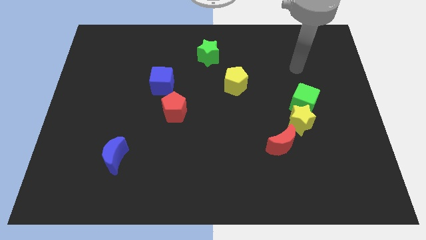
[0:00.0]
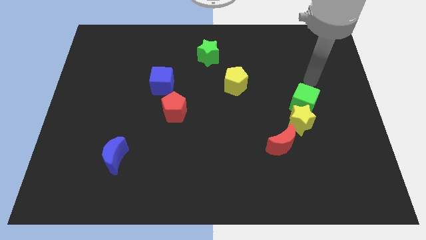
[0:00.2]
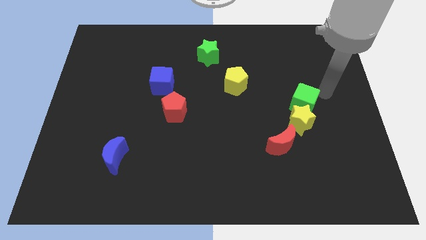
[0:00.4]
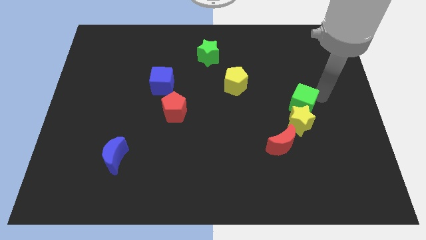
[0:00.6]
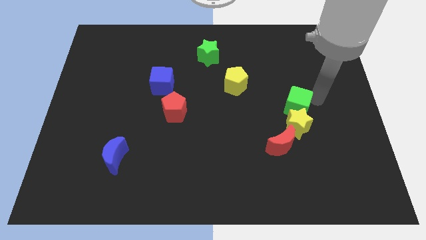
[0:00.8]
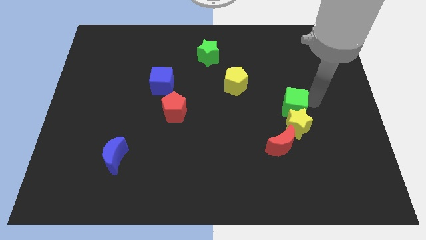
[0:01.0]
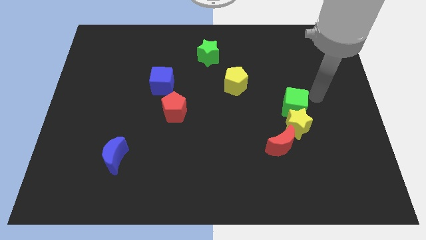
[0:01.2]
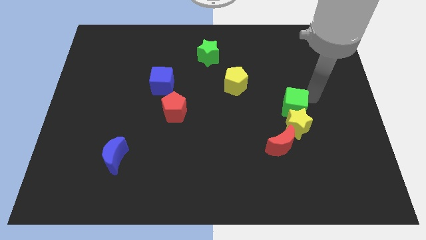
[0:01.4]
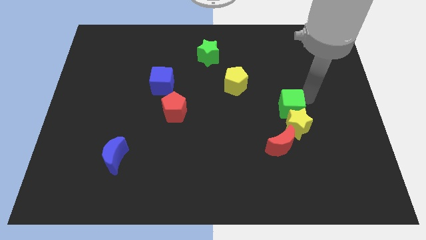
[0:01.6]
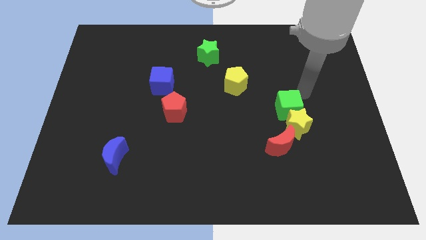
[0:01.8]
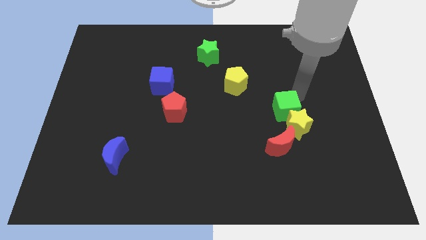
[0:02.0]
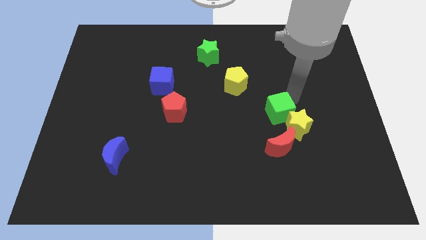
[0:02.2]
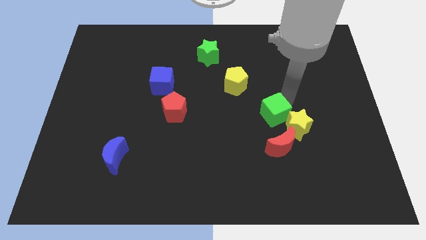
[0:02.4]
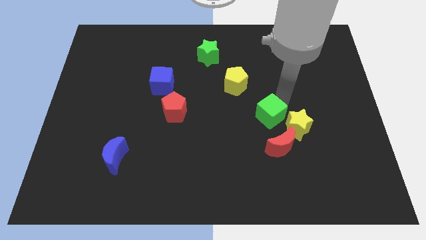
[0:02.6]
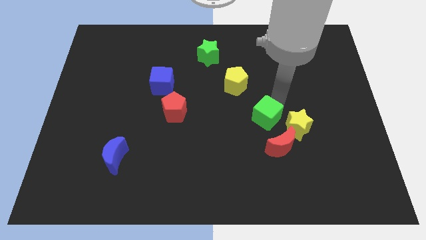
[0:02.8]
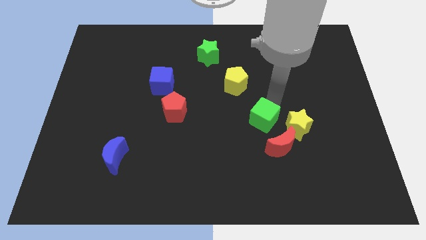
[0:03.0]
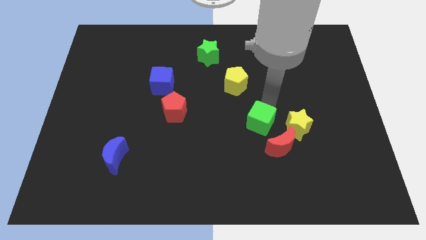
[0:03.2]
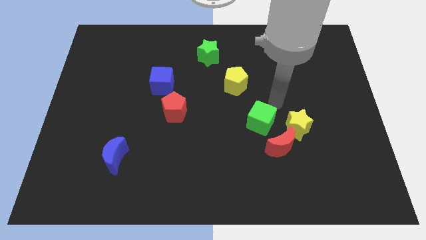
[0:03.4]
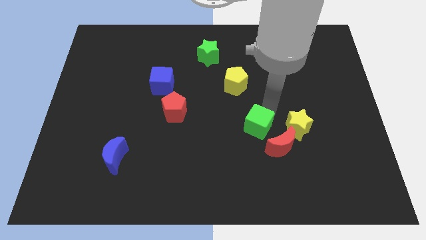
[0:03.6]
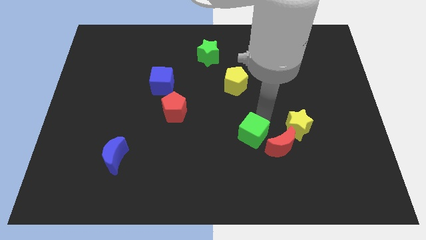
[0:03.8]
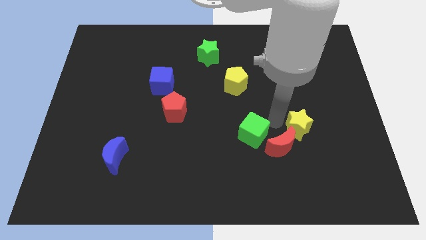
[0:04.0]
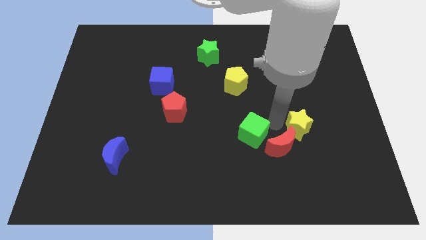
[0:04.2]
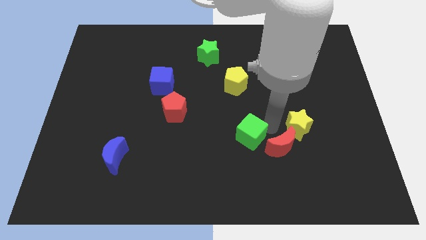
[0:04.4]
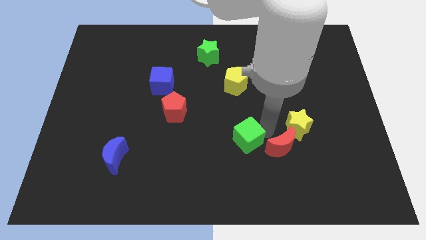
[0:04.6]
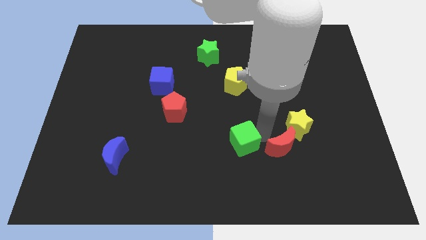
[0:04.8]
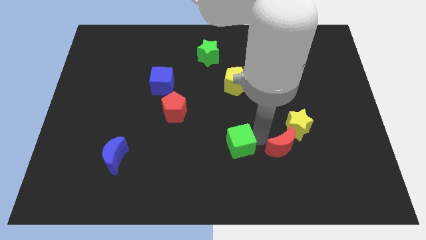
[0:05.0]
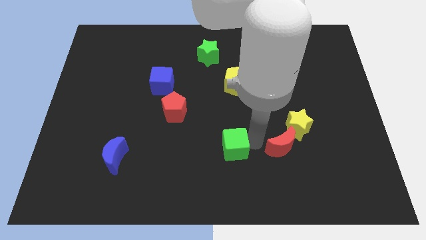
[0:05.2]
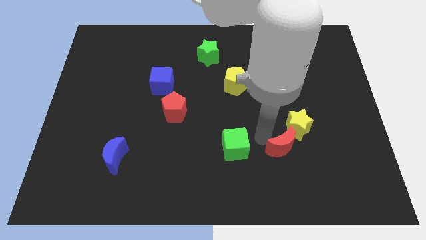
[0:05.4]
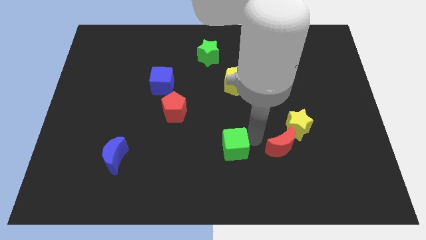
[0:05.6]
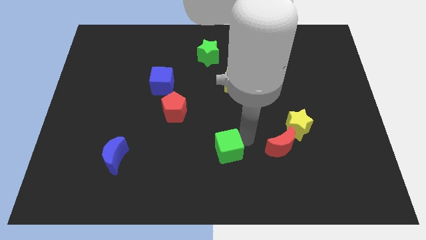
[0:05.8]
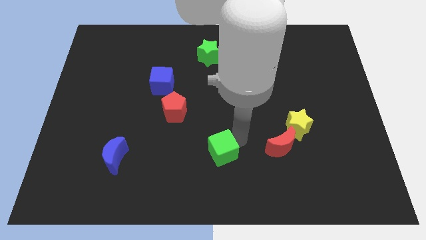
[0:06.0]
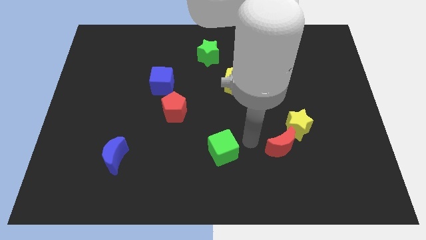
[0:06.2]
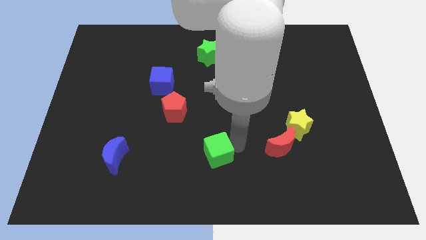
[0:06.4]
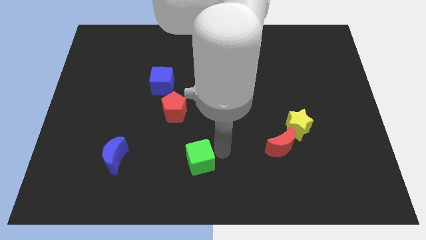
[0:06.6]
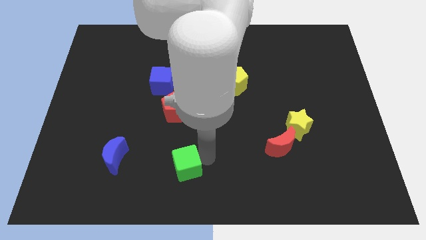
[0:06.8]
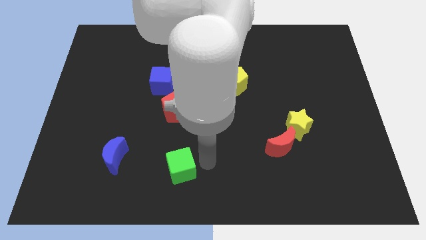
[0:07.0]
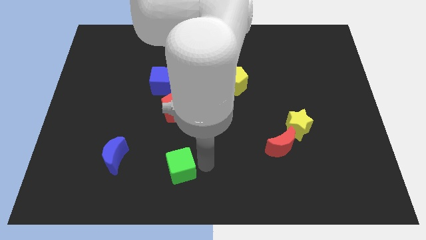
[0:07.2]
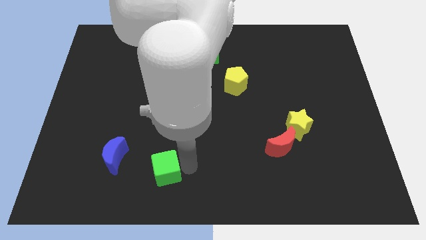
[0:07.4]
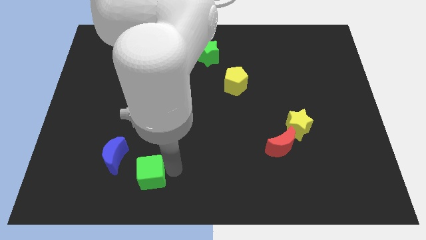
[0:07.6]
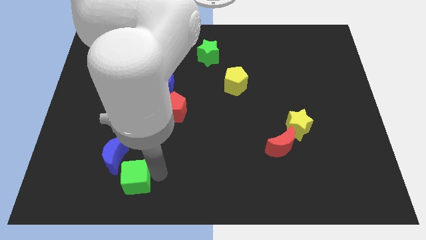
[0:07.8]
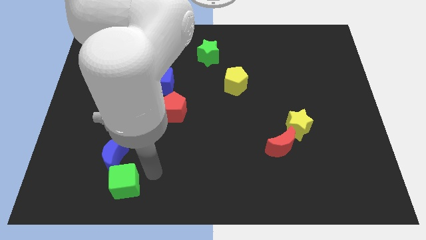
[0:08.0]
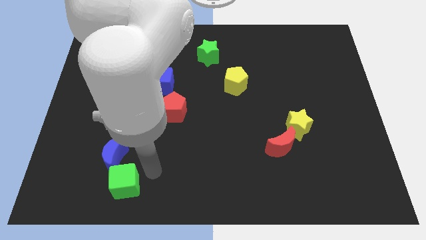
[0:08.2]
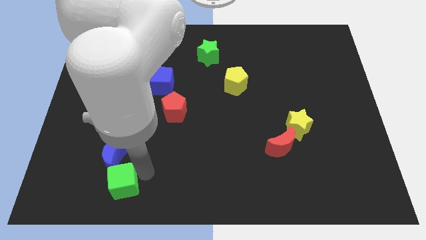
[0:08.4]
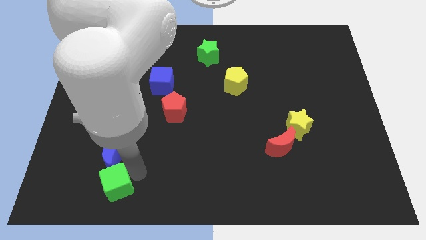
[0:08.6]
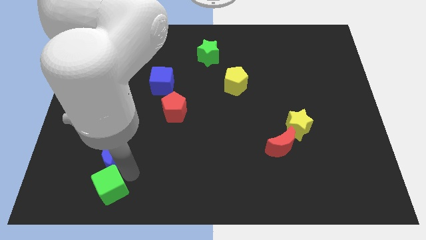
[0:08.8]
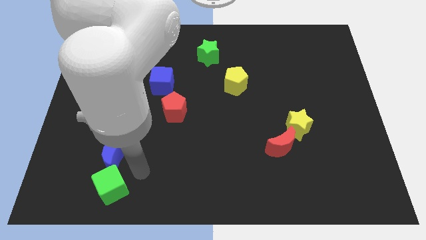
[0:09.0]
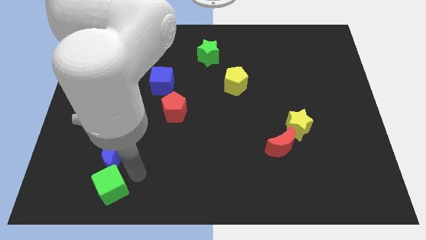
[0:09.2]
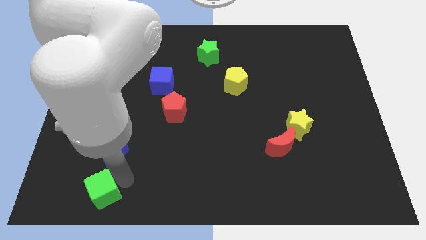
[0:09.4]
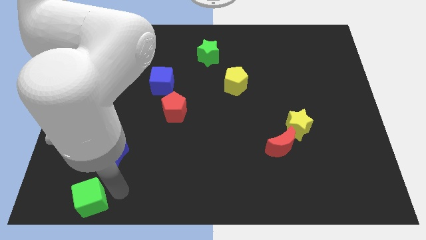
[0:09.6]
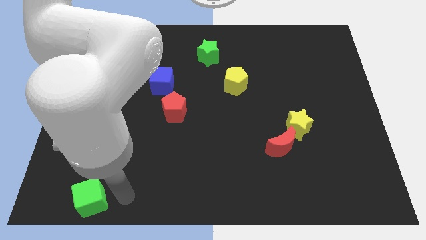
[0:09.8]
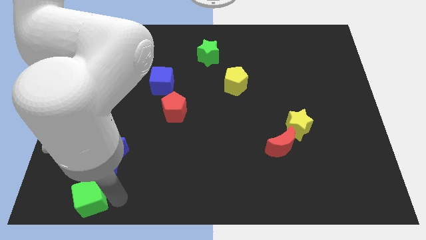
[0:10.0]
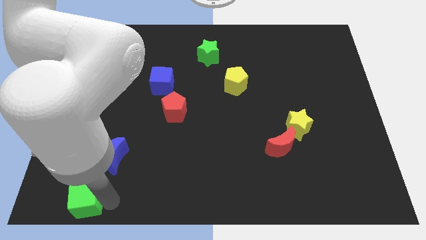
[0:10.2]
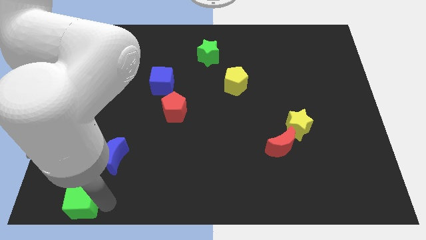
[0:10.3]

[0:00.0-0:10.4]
slide the green cube to the lower left corner
